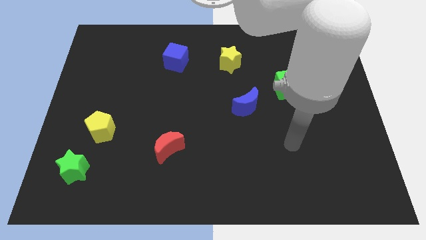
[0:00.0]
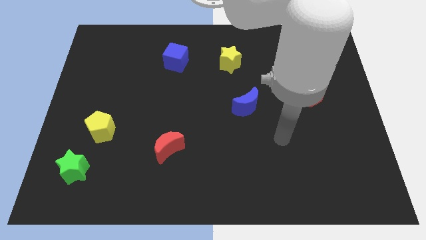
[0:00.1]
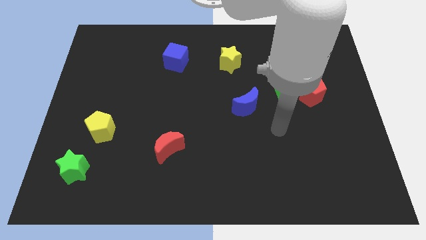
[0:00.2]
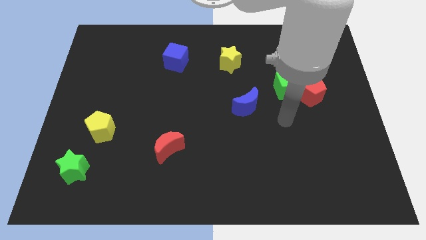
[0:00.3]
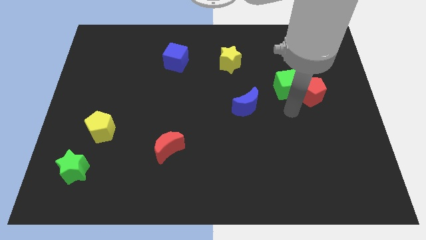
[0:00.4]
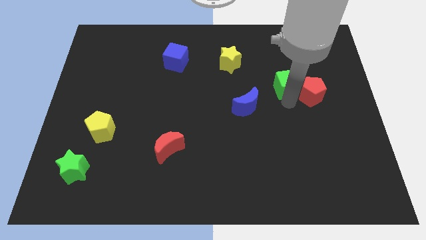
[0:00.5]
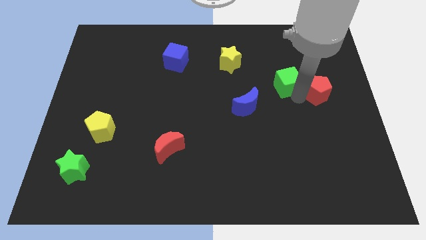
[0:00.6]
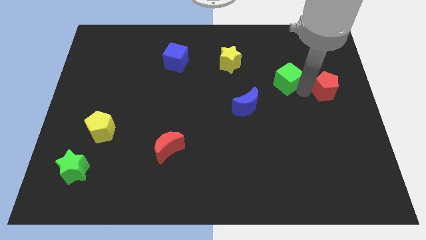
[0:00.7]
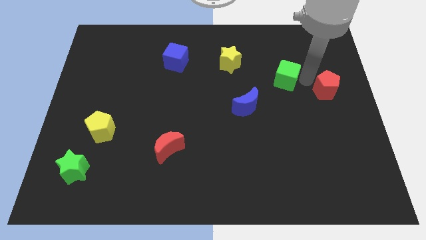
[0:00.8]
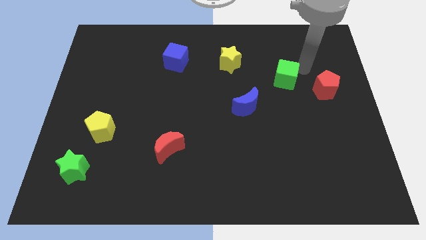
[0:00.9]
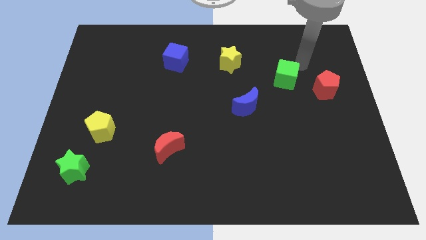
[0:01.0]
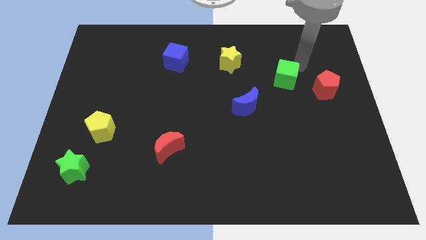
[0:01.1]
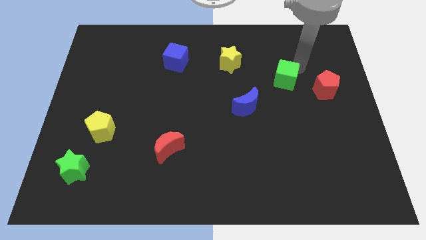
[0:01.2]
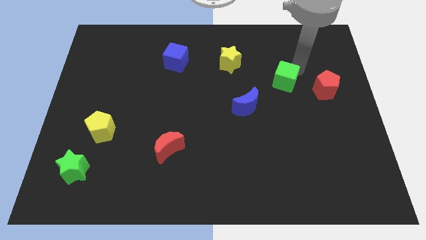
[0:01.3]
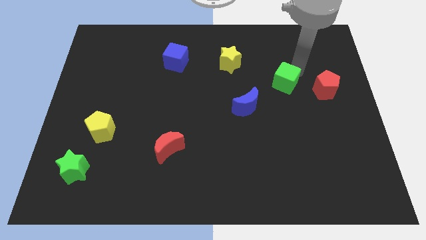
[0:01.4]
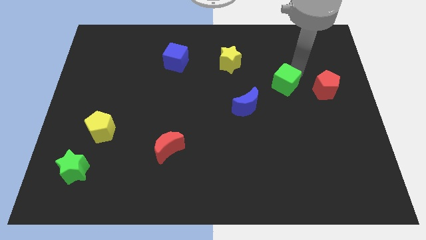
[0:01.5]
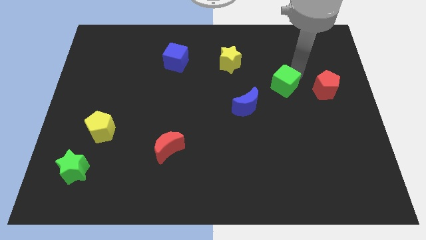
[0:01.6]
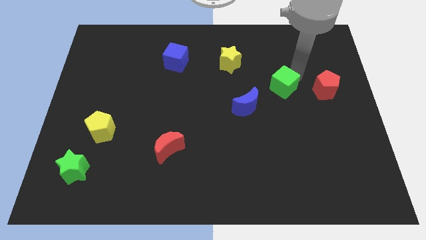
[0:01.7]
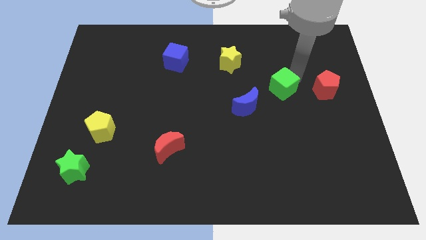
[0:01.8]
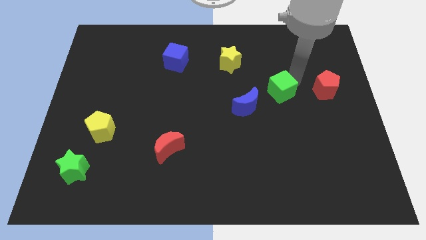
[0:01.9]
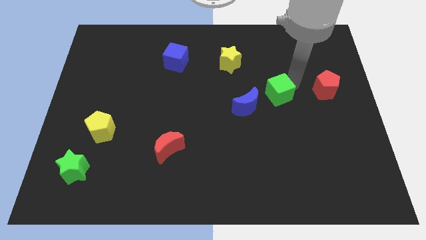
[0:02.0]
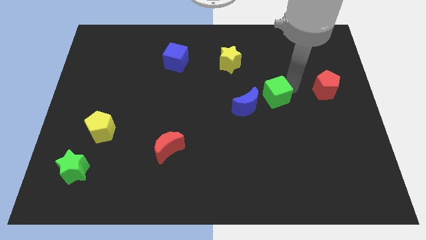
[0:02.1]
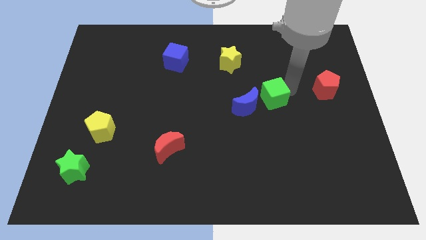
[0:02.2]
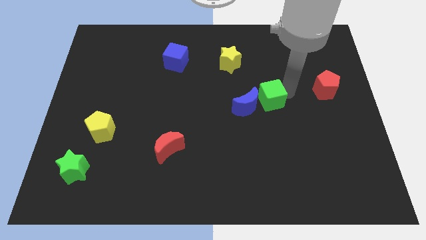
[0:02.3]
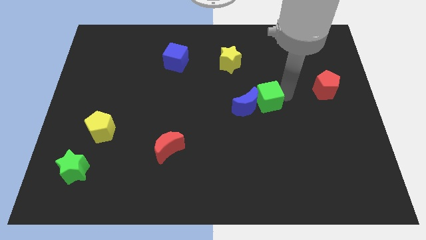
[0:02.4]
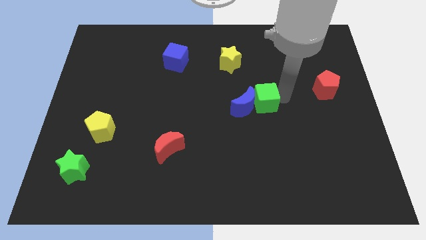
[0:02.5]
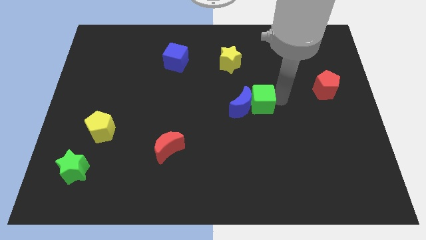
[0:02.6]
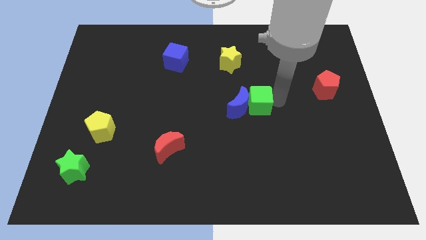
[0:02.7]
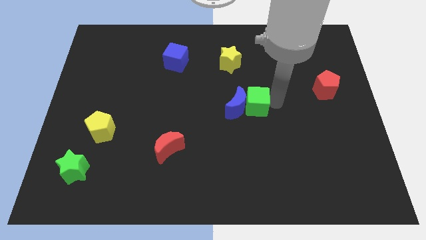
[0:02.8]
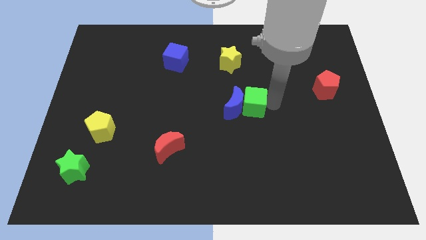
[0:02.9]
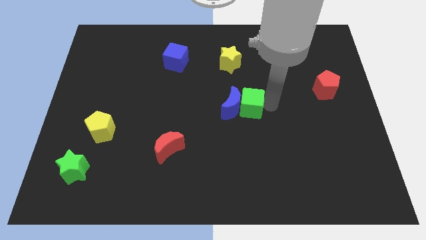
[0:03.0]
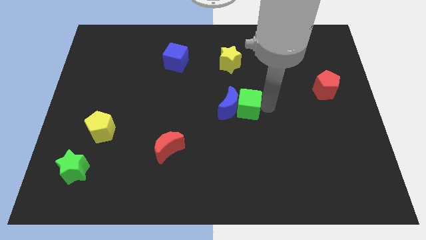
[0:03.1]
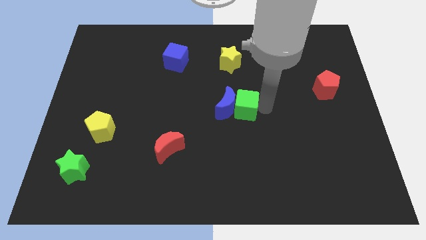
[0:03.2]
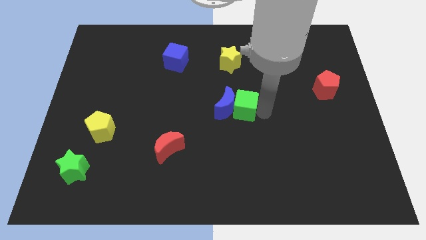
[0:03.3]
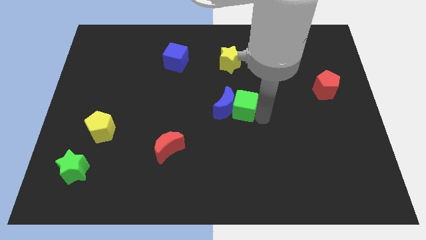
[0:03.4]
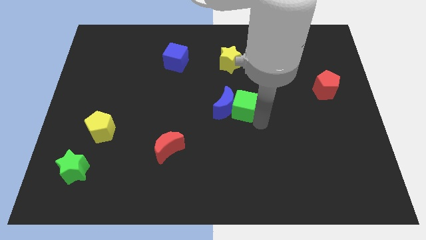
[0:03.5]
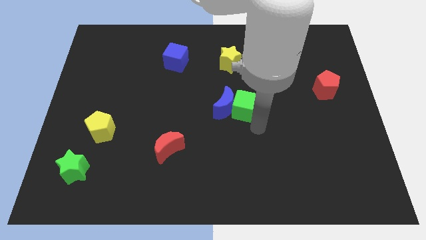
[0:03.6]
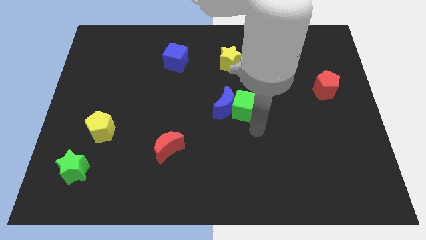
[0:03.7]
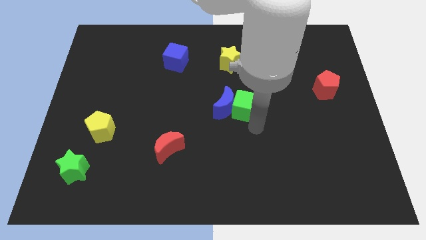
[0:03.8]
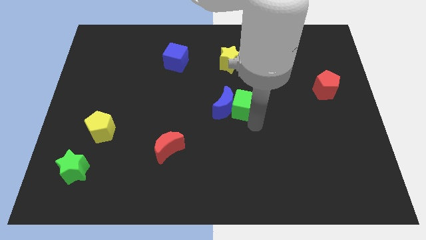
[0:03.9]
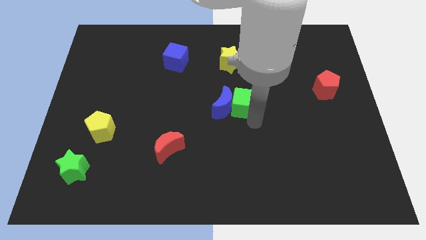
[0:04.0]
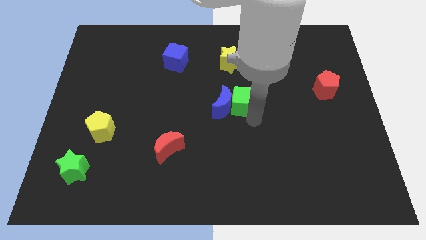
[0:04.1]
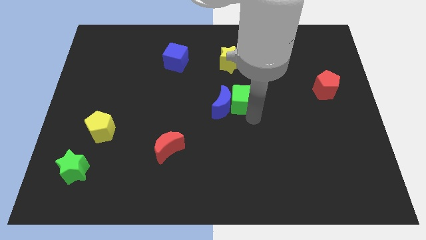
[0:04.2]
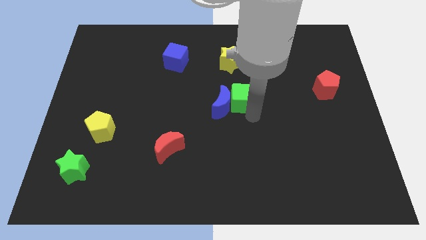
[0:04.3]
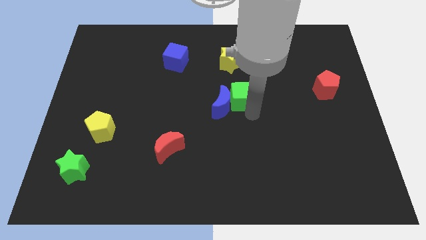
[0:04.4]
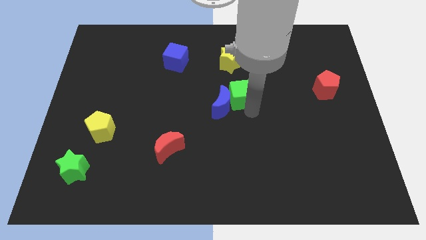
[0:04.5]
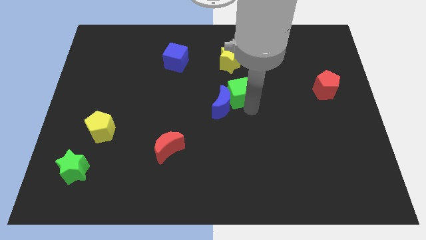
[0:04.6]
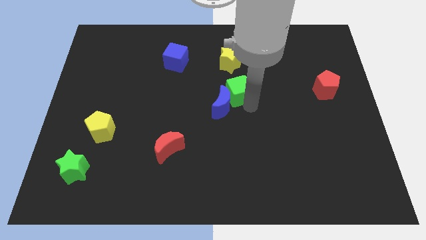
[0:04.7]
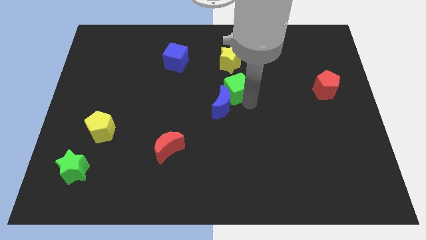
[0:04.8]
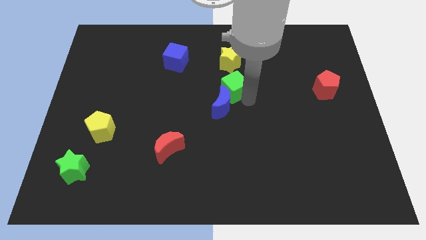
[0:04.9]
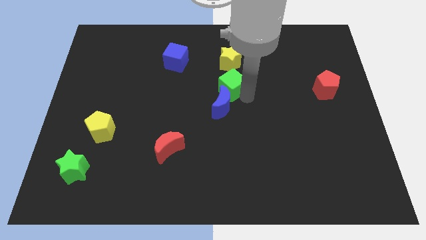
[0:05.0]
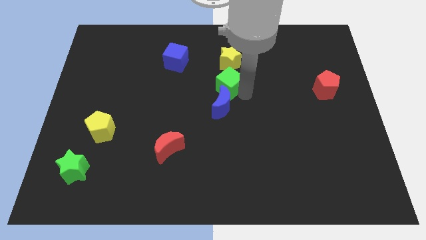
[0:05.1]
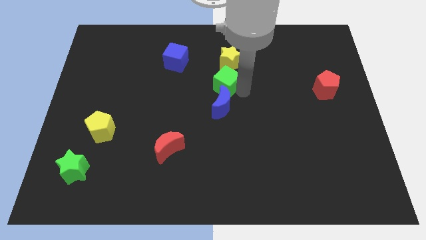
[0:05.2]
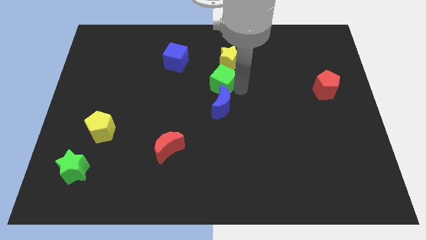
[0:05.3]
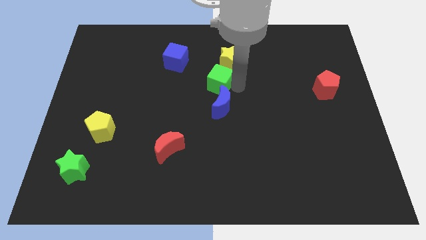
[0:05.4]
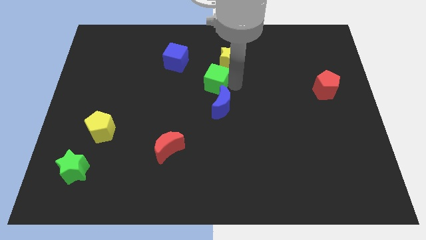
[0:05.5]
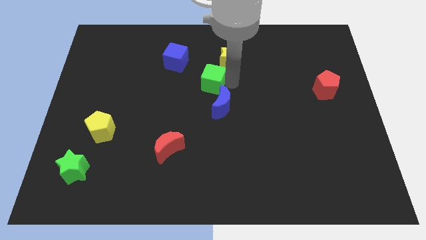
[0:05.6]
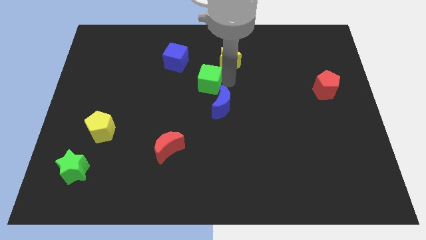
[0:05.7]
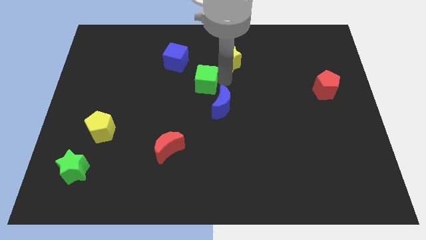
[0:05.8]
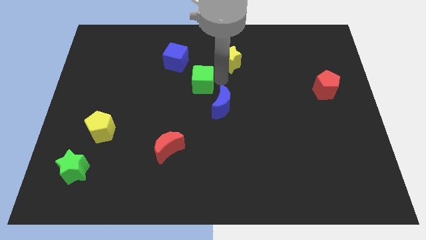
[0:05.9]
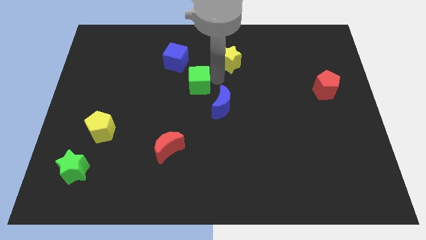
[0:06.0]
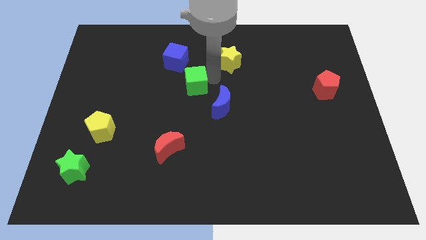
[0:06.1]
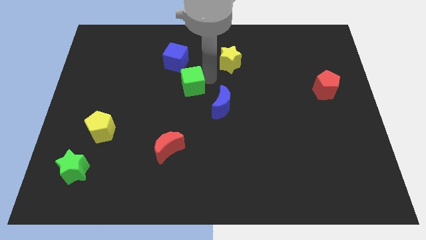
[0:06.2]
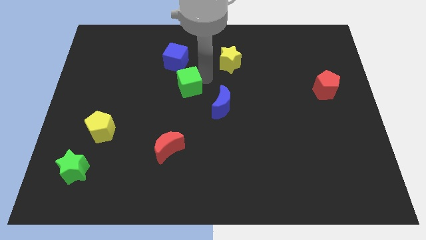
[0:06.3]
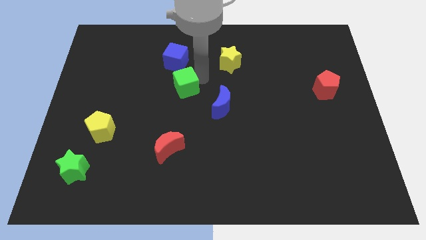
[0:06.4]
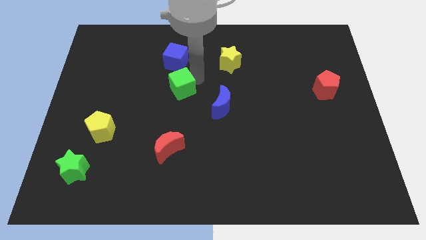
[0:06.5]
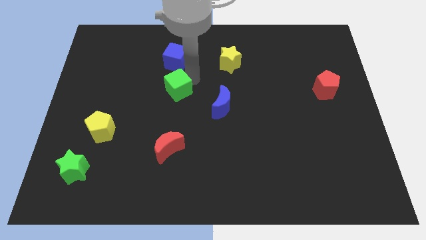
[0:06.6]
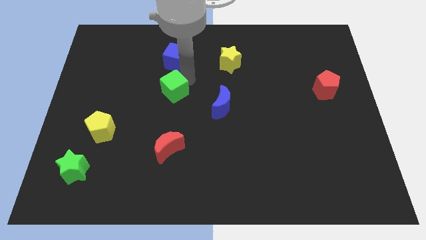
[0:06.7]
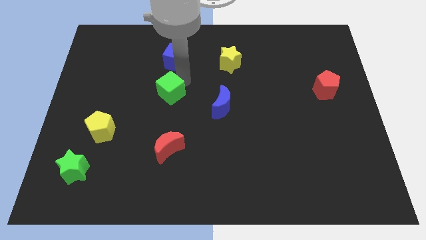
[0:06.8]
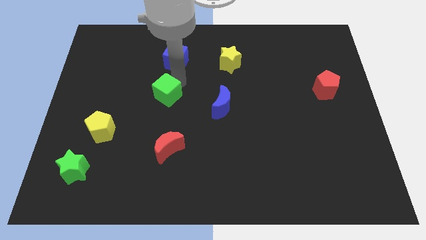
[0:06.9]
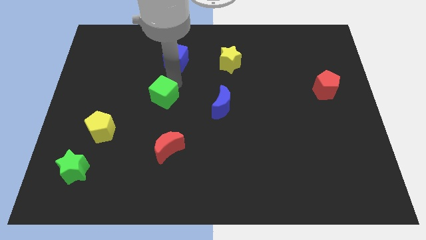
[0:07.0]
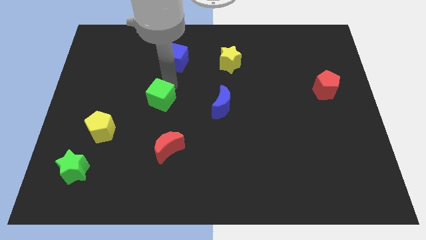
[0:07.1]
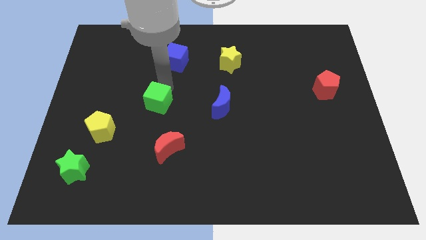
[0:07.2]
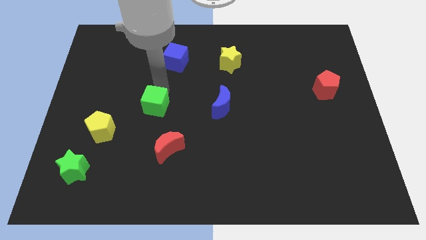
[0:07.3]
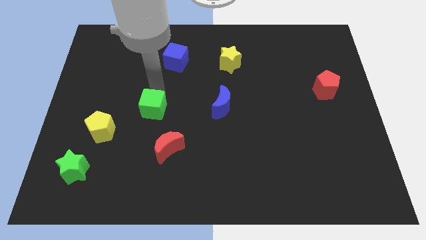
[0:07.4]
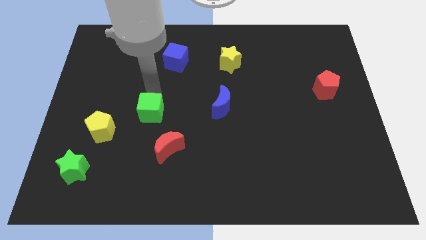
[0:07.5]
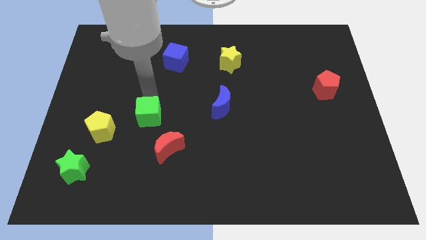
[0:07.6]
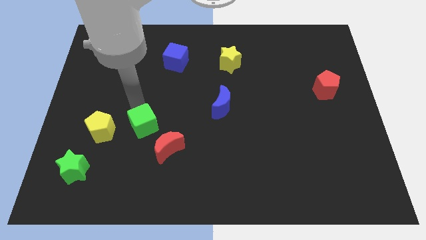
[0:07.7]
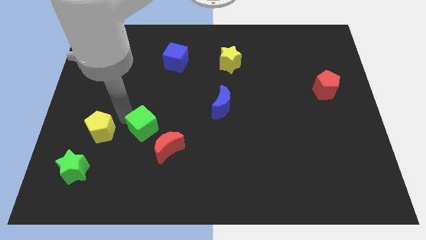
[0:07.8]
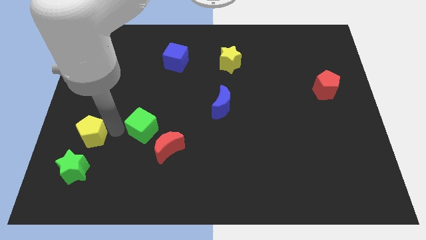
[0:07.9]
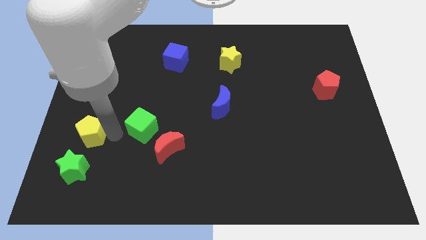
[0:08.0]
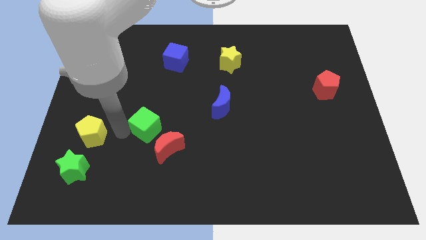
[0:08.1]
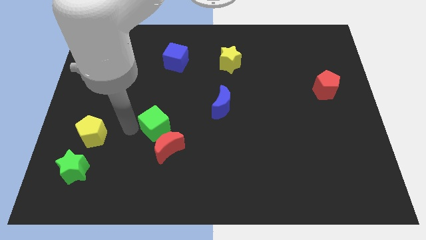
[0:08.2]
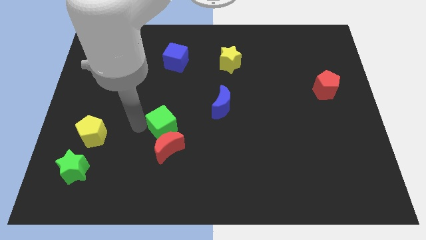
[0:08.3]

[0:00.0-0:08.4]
move the green cube towards the red moon
